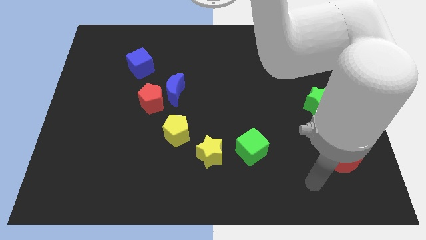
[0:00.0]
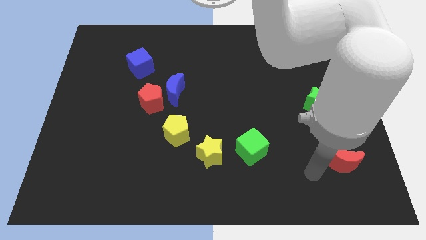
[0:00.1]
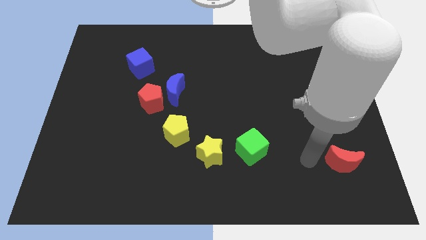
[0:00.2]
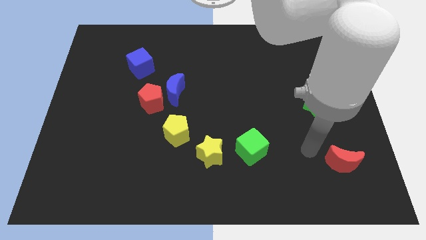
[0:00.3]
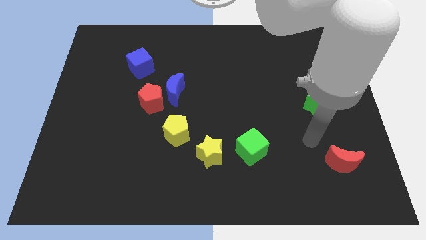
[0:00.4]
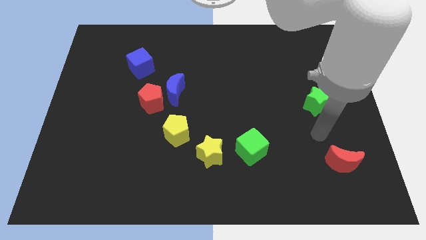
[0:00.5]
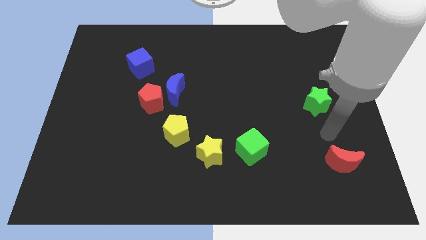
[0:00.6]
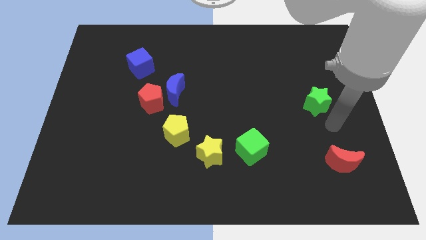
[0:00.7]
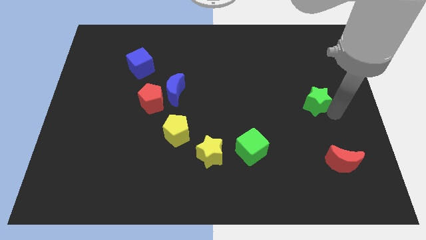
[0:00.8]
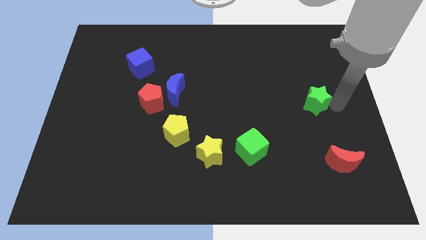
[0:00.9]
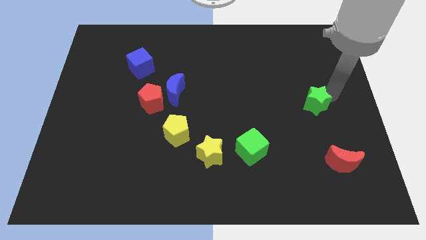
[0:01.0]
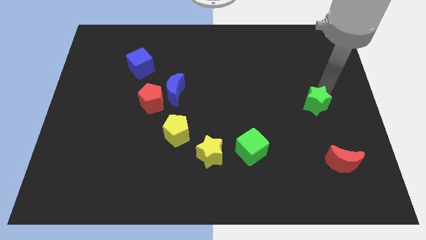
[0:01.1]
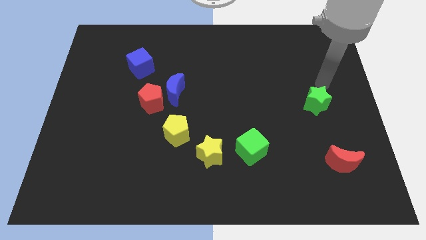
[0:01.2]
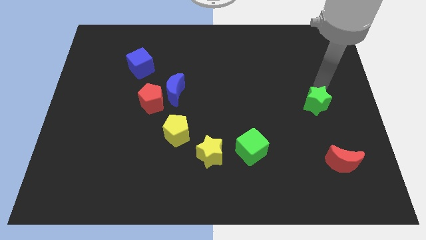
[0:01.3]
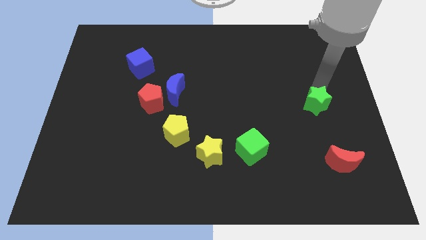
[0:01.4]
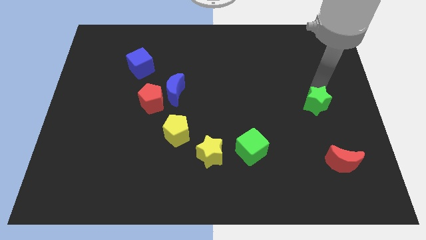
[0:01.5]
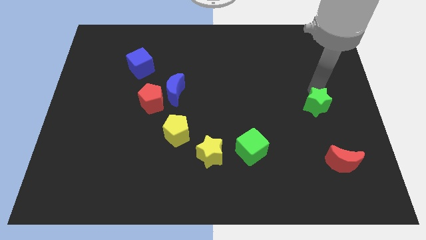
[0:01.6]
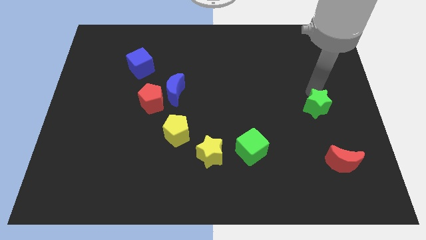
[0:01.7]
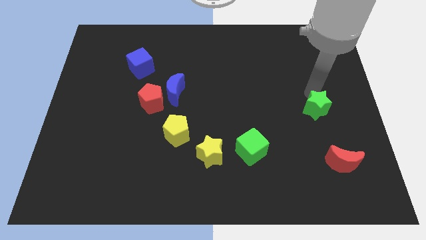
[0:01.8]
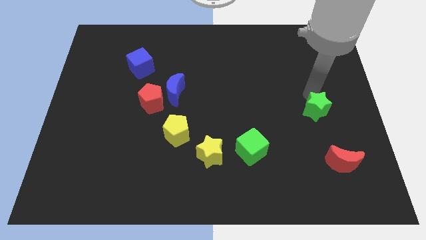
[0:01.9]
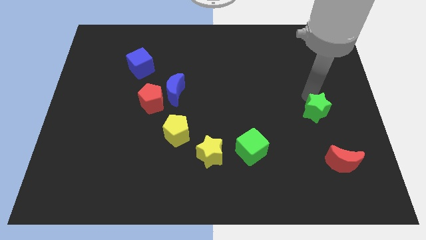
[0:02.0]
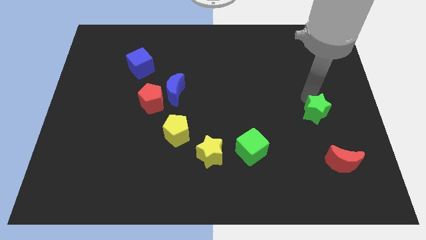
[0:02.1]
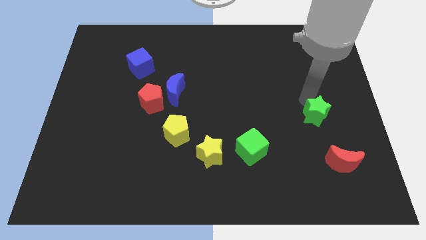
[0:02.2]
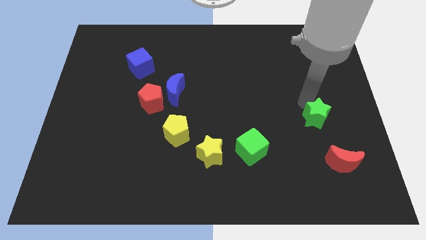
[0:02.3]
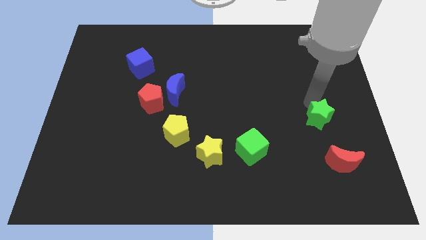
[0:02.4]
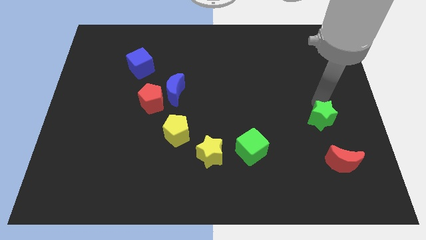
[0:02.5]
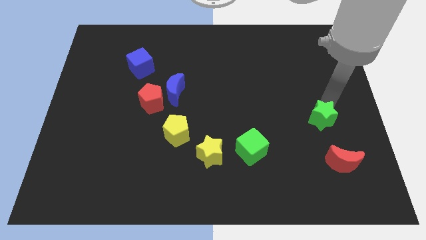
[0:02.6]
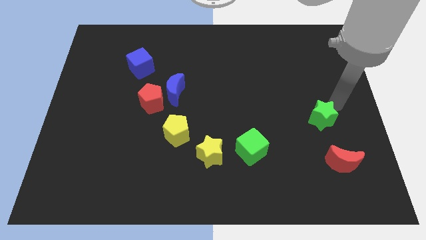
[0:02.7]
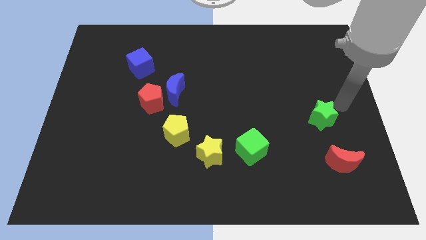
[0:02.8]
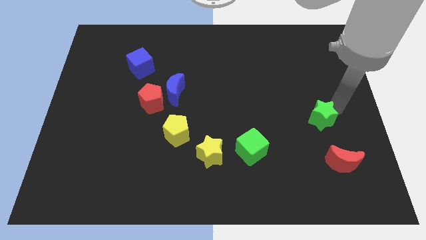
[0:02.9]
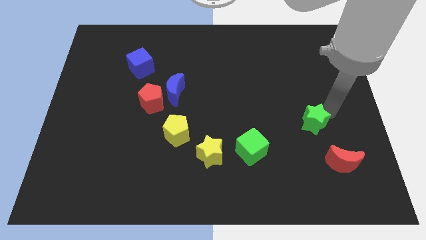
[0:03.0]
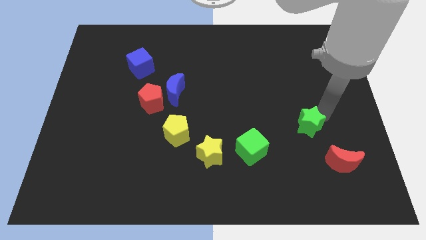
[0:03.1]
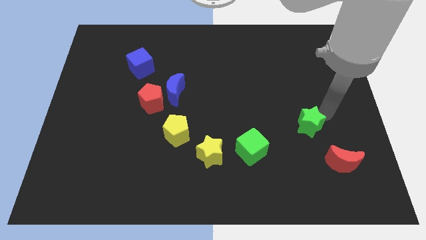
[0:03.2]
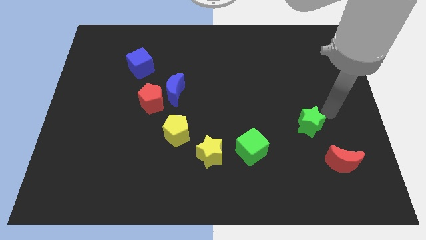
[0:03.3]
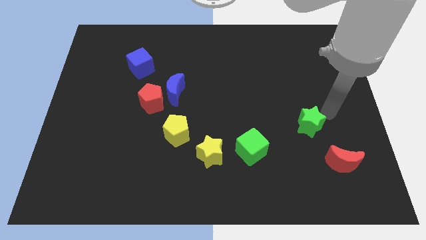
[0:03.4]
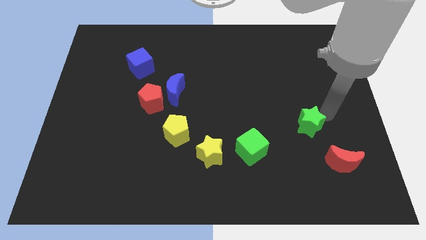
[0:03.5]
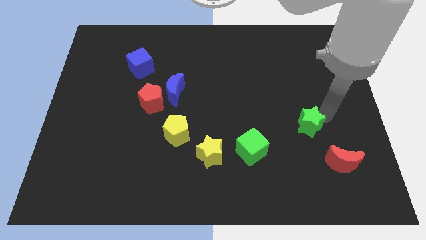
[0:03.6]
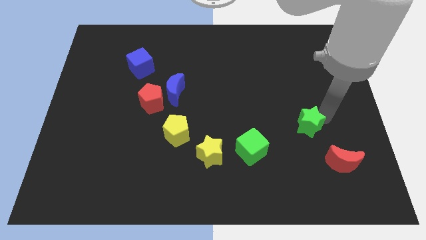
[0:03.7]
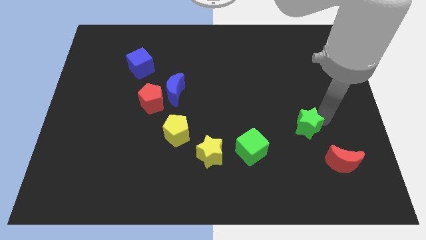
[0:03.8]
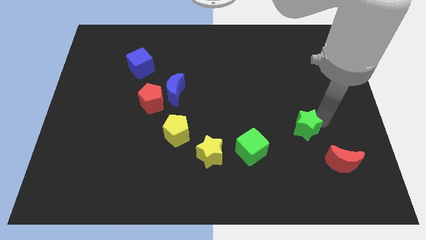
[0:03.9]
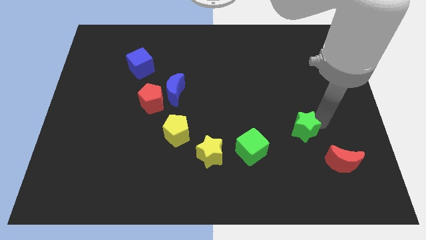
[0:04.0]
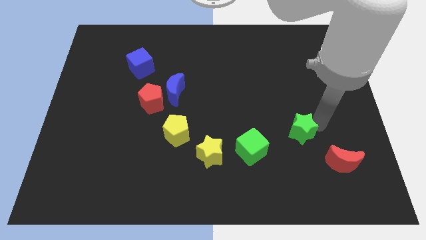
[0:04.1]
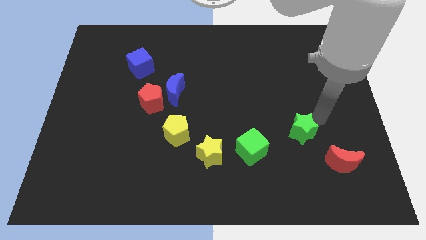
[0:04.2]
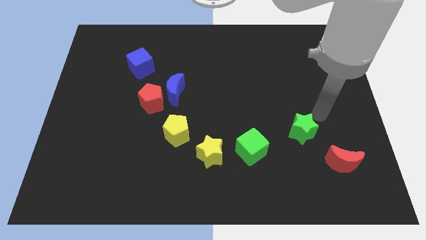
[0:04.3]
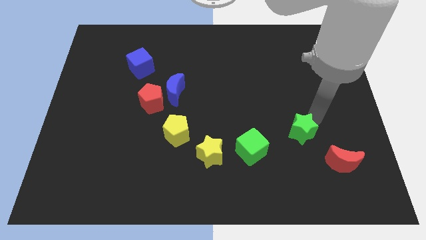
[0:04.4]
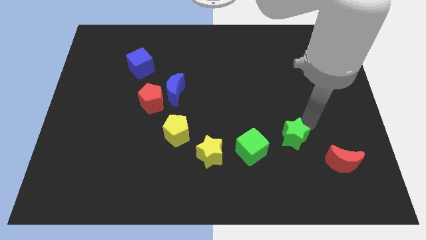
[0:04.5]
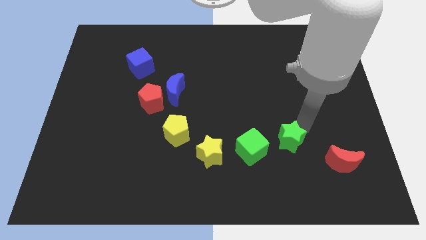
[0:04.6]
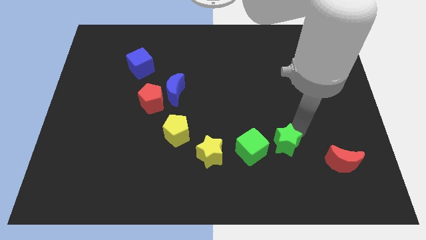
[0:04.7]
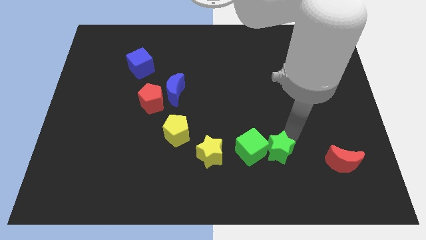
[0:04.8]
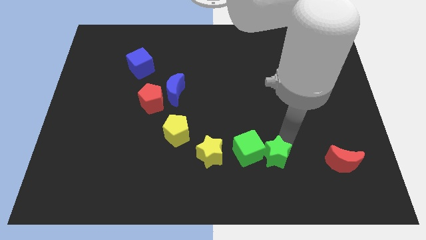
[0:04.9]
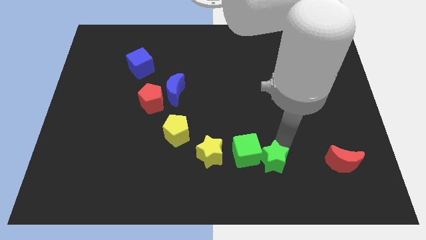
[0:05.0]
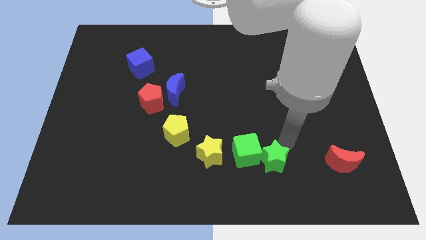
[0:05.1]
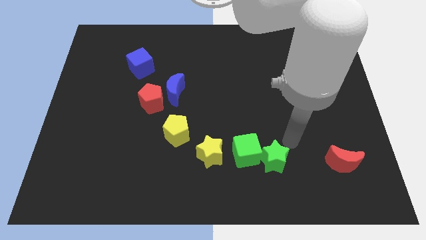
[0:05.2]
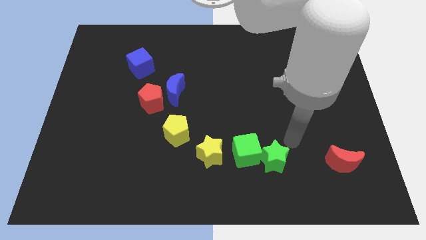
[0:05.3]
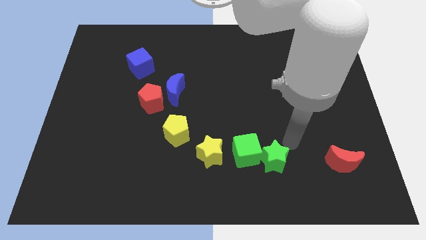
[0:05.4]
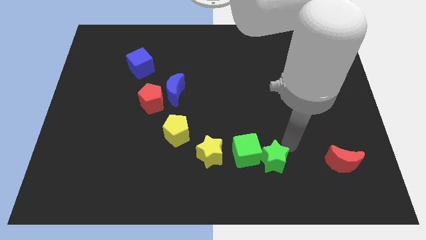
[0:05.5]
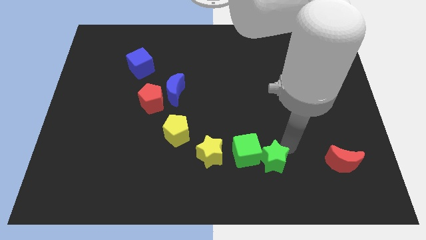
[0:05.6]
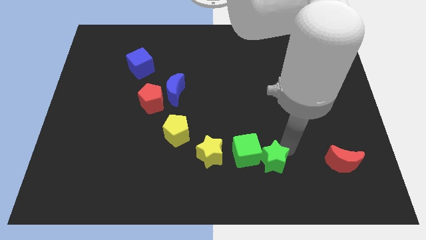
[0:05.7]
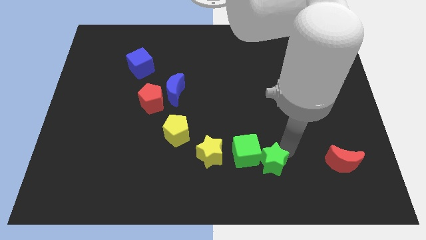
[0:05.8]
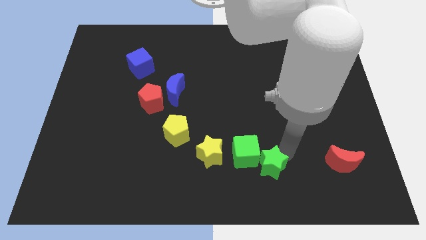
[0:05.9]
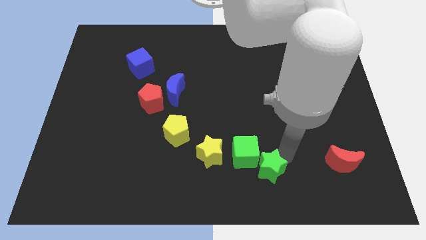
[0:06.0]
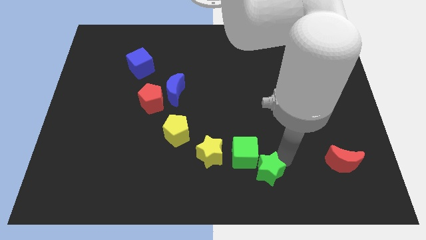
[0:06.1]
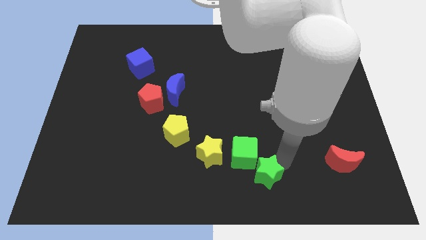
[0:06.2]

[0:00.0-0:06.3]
put the green star to the bottom side
